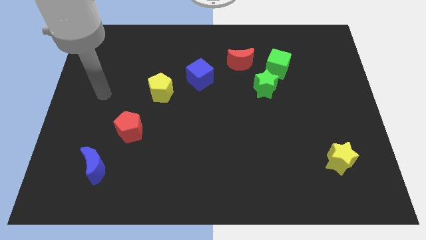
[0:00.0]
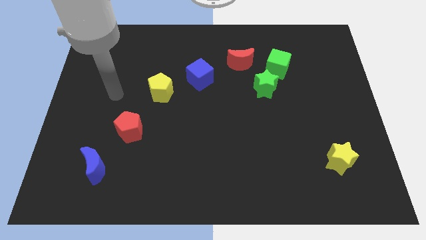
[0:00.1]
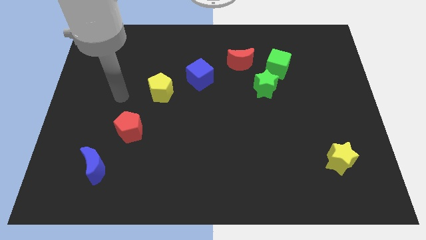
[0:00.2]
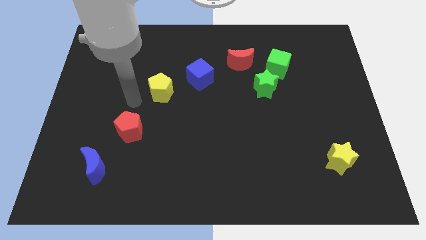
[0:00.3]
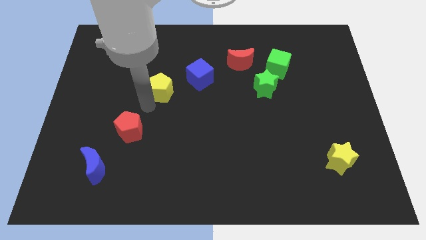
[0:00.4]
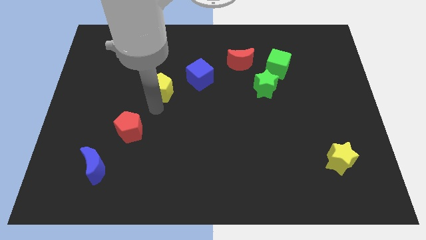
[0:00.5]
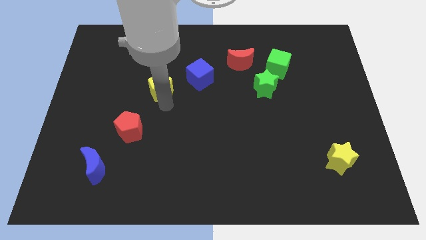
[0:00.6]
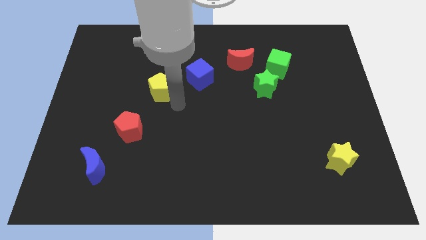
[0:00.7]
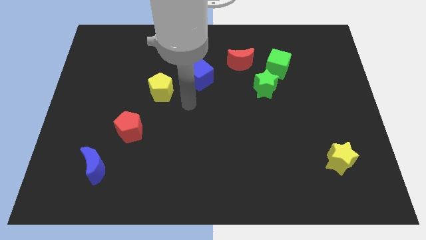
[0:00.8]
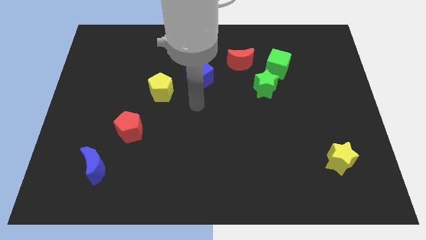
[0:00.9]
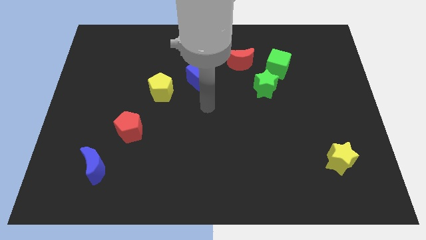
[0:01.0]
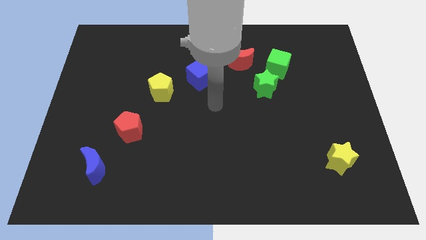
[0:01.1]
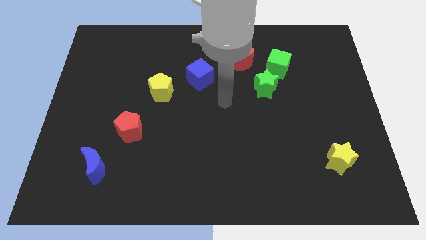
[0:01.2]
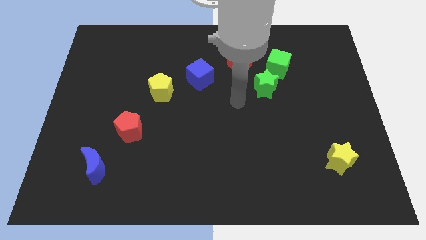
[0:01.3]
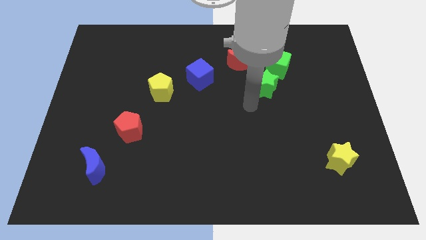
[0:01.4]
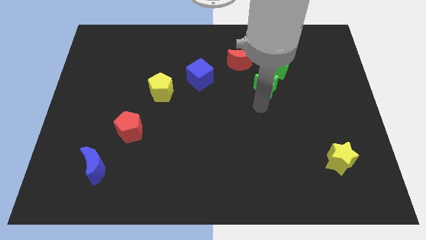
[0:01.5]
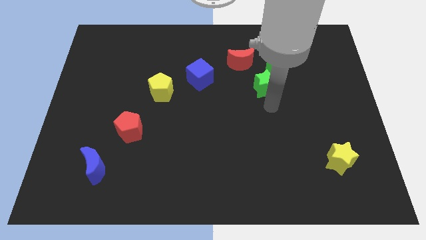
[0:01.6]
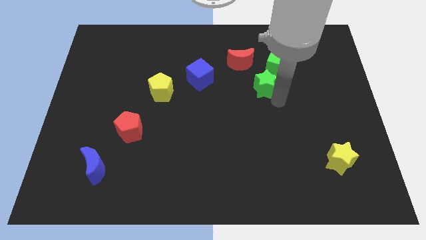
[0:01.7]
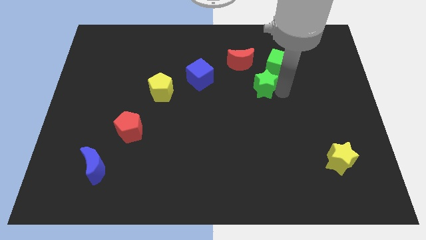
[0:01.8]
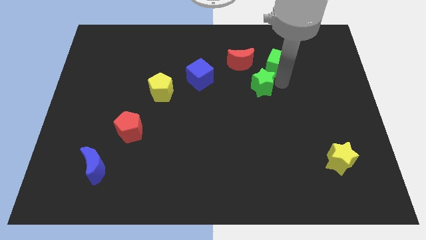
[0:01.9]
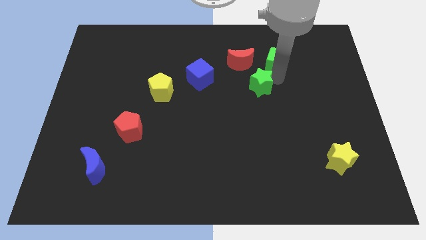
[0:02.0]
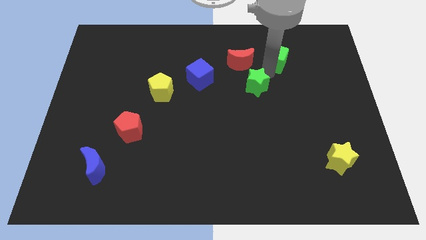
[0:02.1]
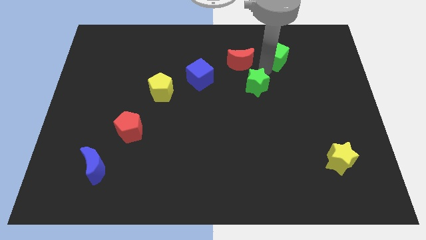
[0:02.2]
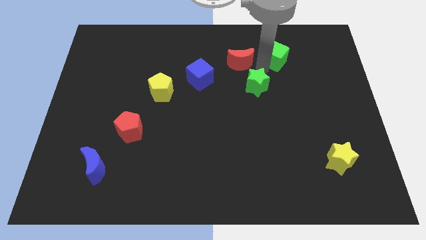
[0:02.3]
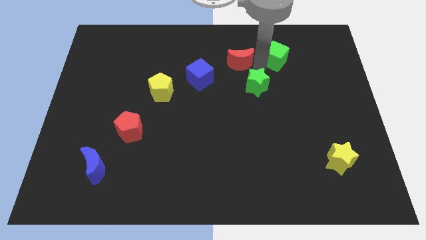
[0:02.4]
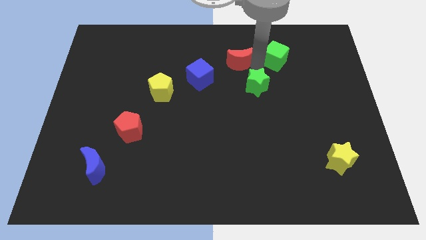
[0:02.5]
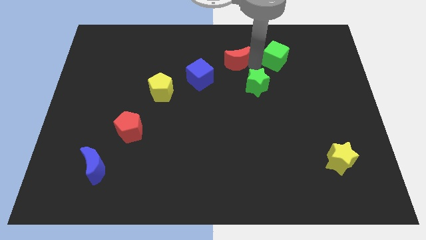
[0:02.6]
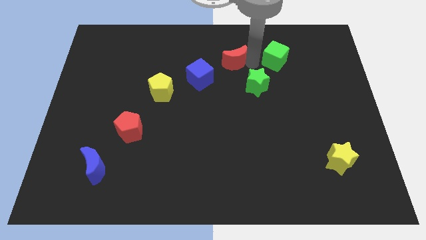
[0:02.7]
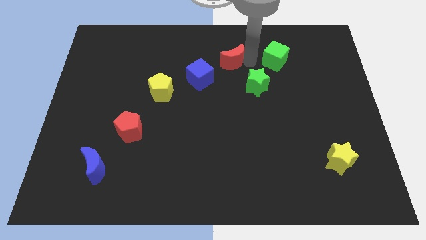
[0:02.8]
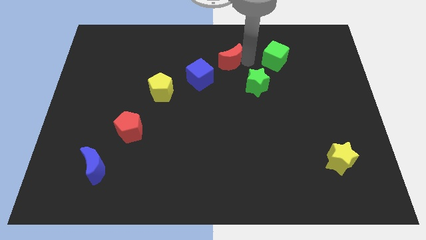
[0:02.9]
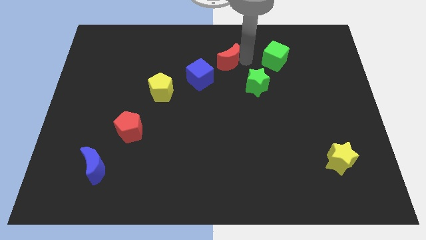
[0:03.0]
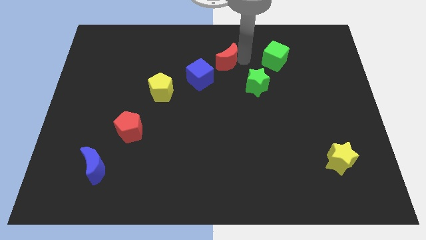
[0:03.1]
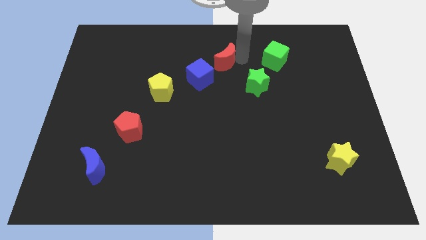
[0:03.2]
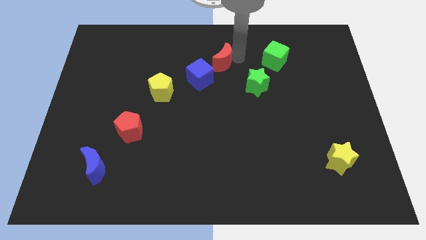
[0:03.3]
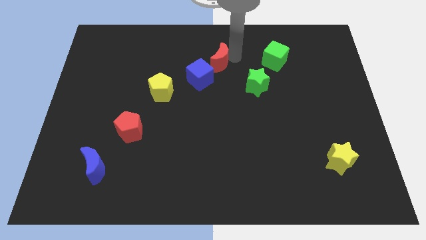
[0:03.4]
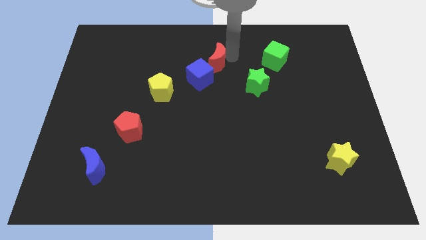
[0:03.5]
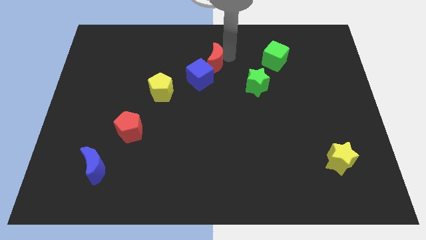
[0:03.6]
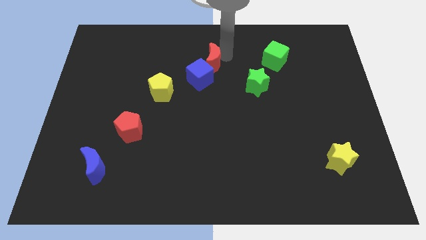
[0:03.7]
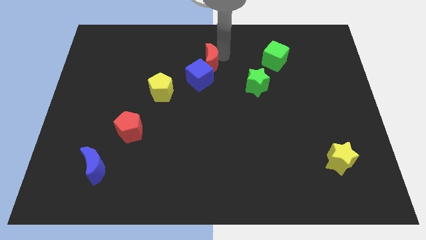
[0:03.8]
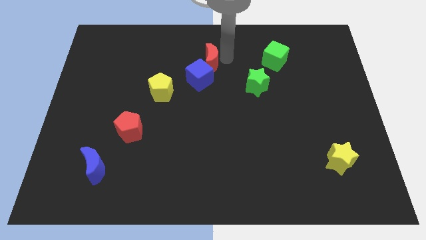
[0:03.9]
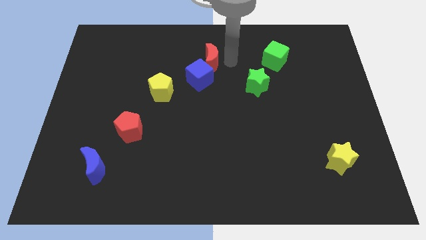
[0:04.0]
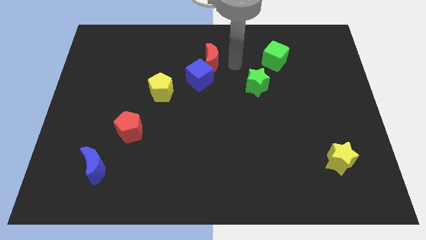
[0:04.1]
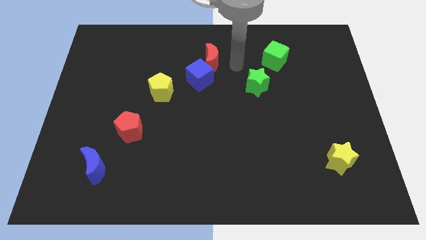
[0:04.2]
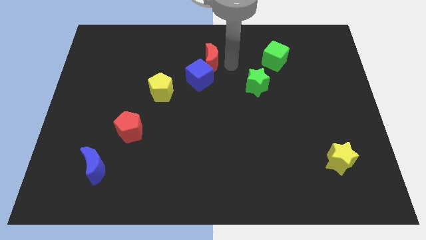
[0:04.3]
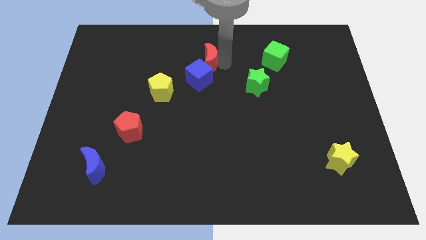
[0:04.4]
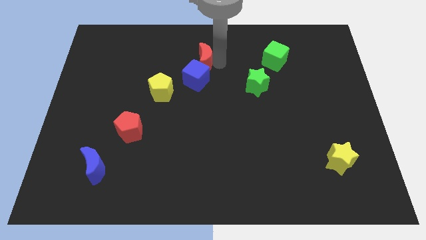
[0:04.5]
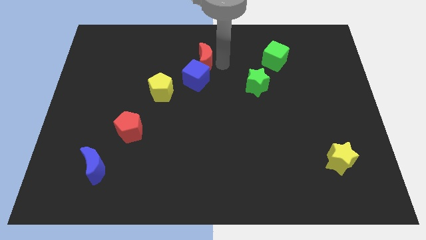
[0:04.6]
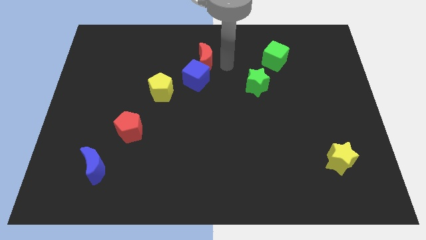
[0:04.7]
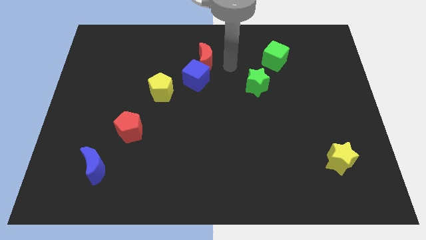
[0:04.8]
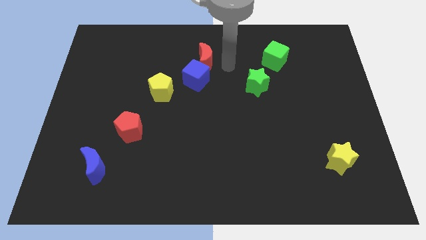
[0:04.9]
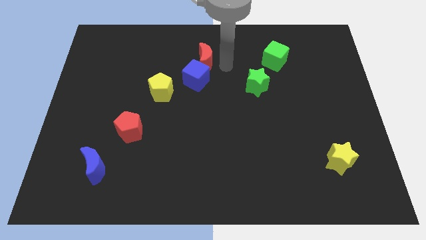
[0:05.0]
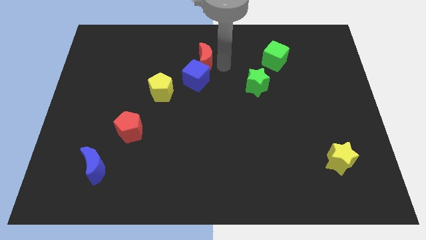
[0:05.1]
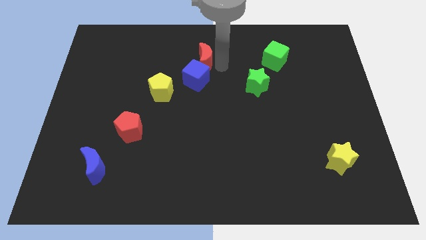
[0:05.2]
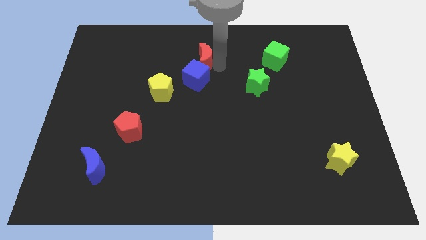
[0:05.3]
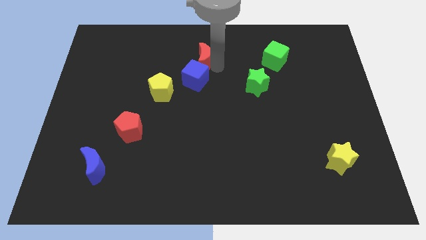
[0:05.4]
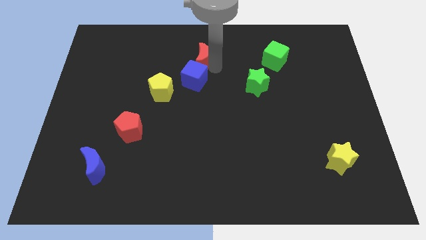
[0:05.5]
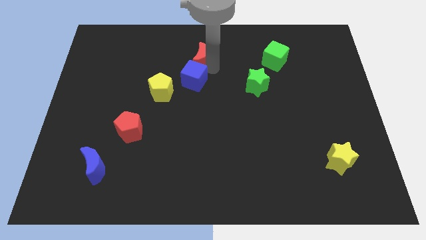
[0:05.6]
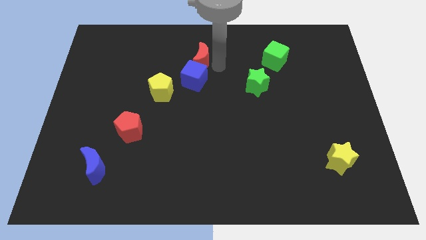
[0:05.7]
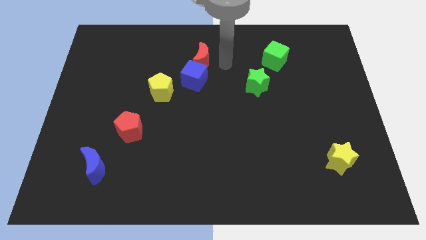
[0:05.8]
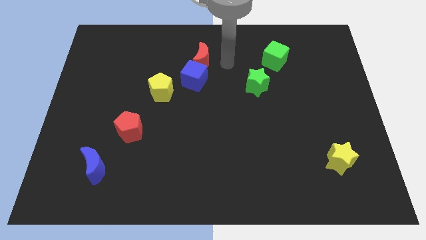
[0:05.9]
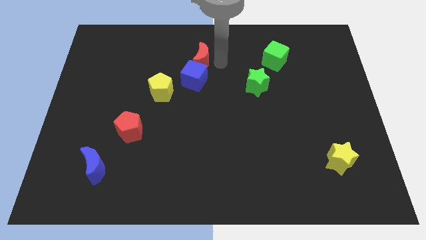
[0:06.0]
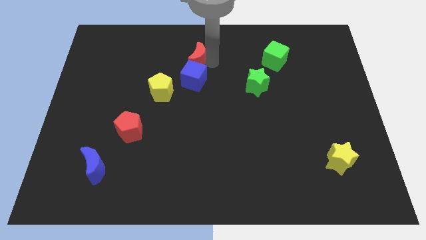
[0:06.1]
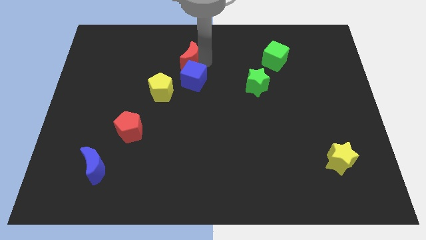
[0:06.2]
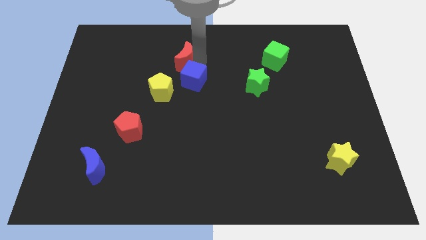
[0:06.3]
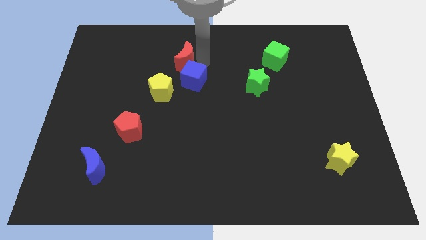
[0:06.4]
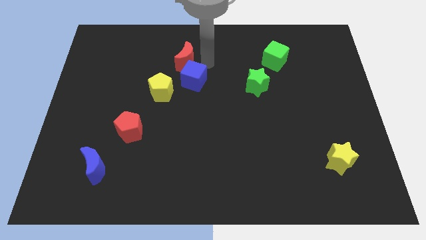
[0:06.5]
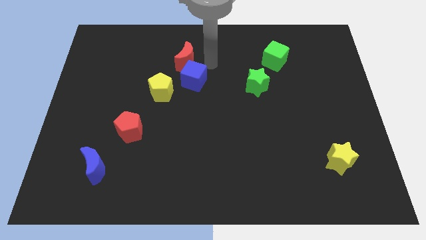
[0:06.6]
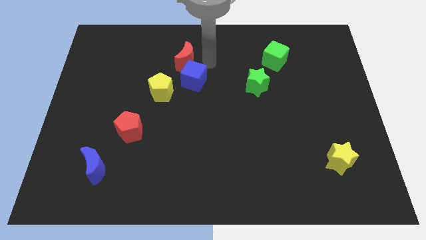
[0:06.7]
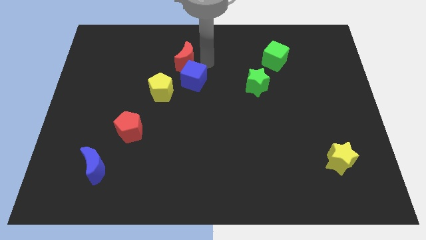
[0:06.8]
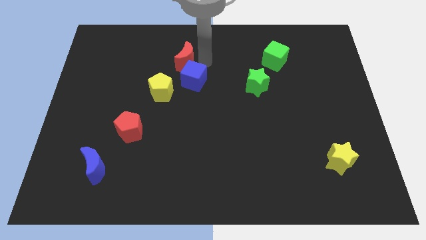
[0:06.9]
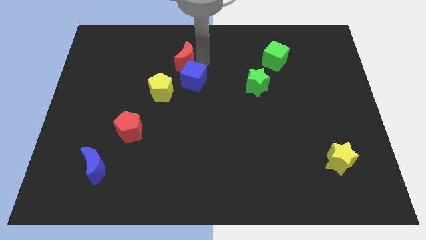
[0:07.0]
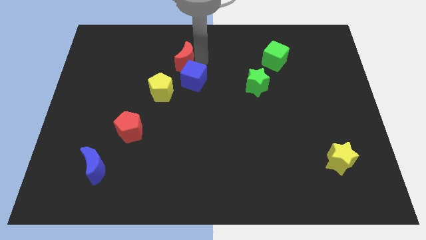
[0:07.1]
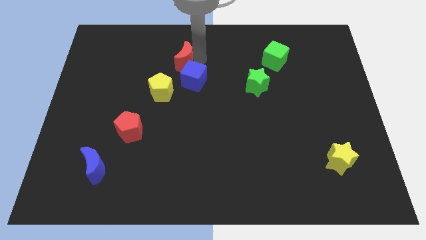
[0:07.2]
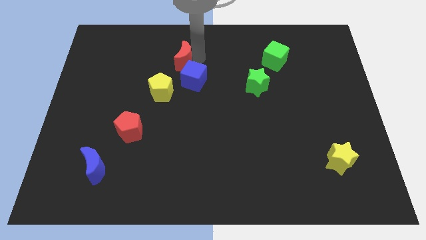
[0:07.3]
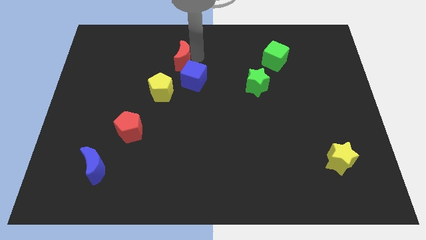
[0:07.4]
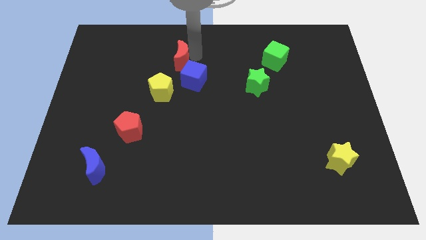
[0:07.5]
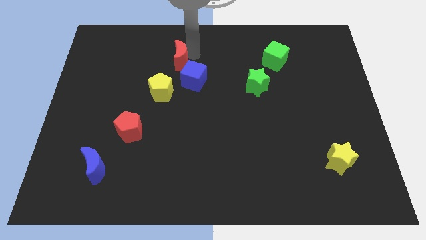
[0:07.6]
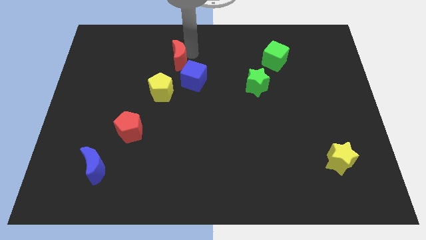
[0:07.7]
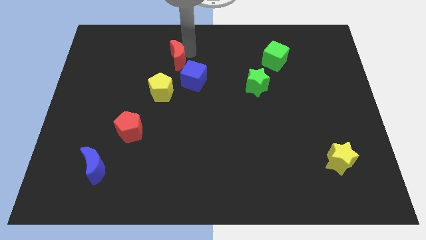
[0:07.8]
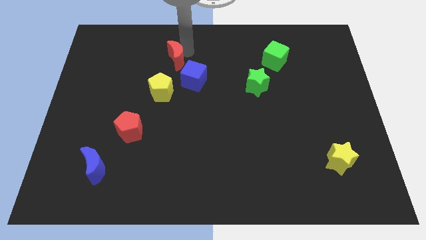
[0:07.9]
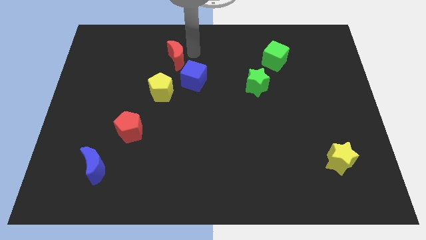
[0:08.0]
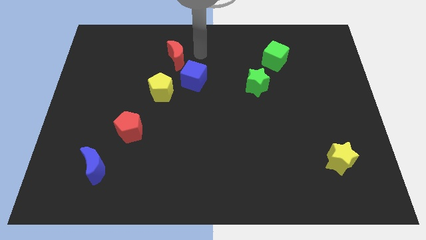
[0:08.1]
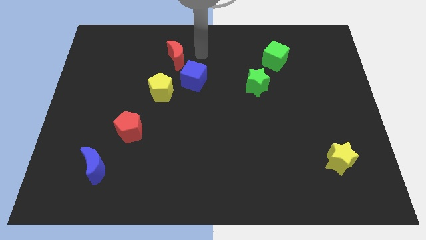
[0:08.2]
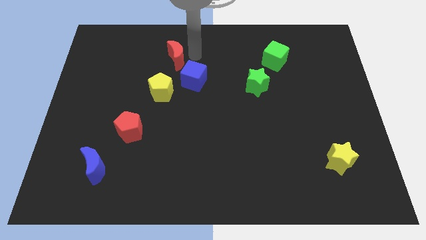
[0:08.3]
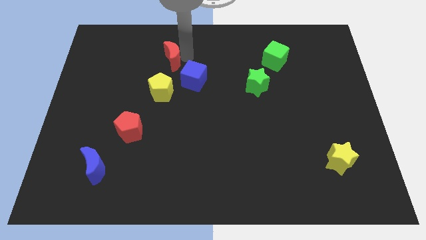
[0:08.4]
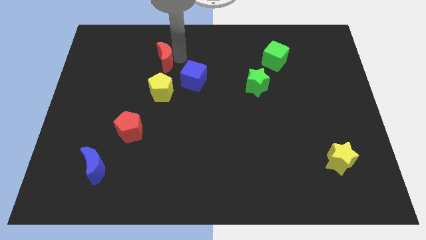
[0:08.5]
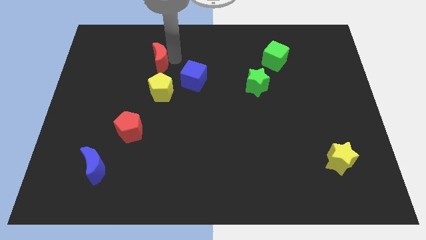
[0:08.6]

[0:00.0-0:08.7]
push the red moon to the left
